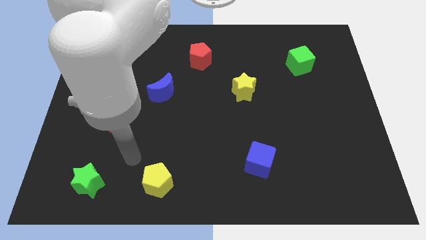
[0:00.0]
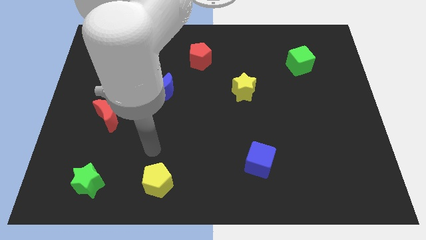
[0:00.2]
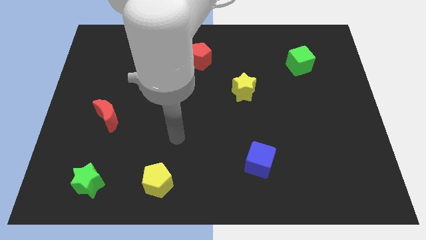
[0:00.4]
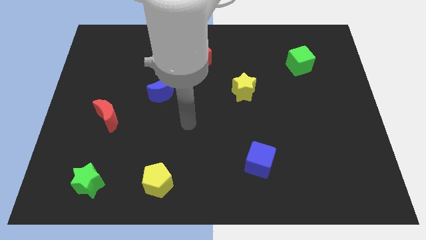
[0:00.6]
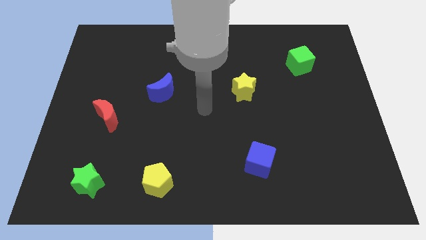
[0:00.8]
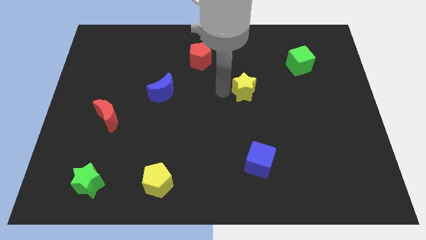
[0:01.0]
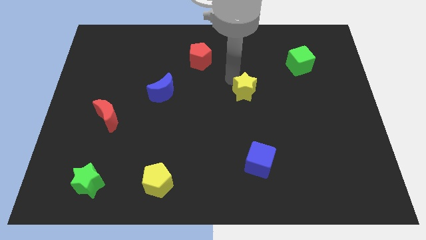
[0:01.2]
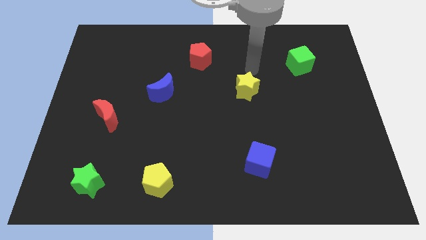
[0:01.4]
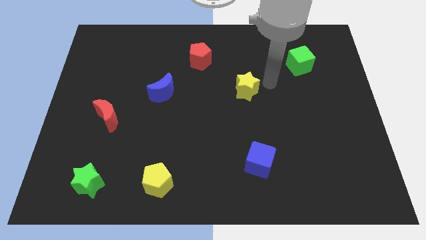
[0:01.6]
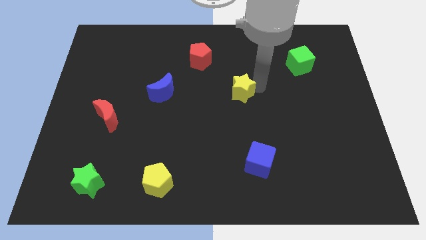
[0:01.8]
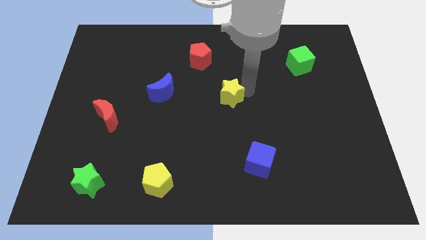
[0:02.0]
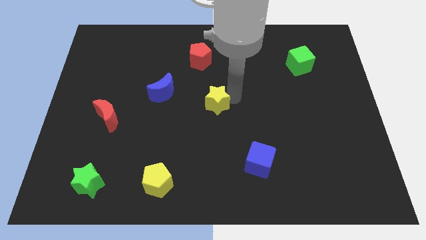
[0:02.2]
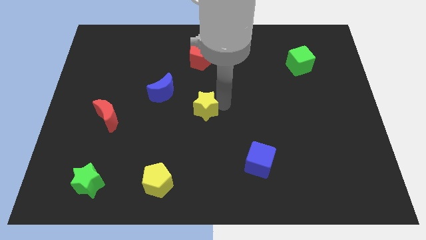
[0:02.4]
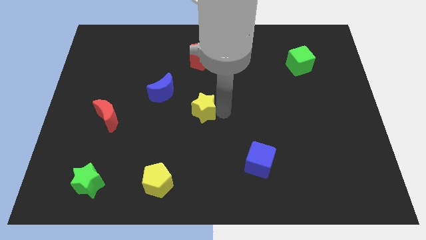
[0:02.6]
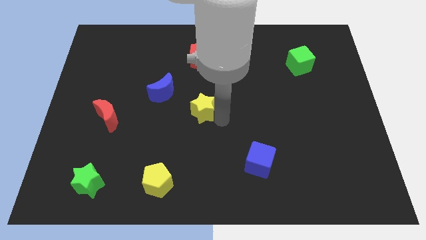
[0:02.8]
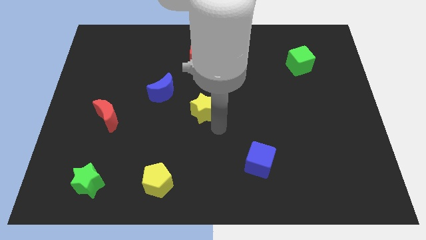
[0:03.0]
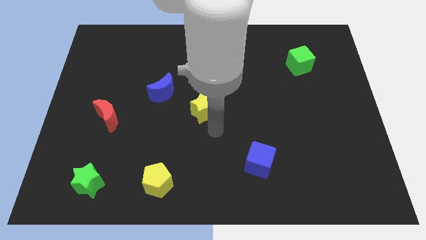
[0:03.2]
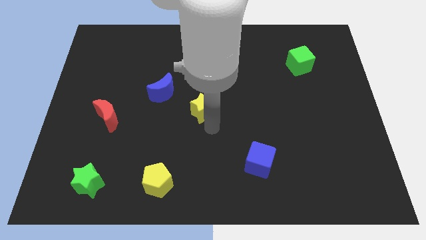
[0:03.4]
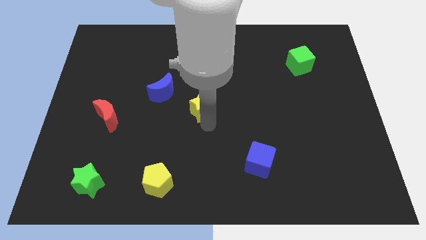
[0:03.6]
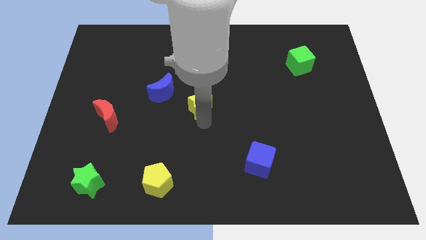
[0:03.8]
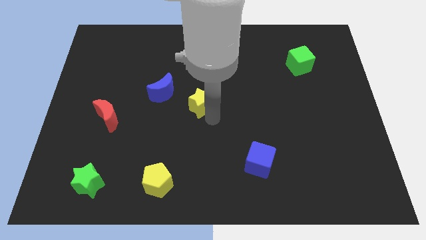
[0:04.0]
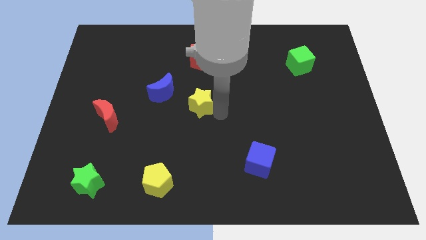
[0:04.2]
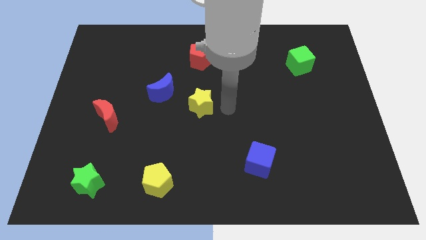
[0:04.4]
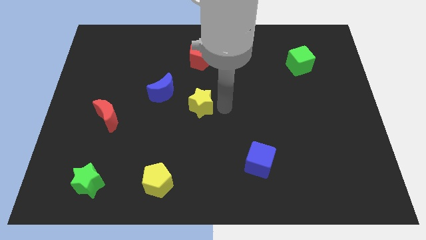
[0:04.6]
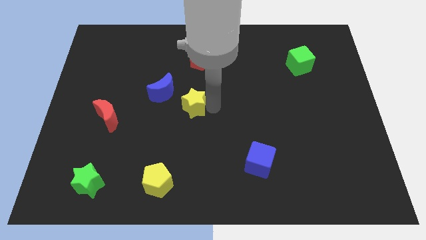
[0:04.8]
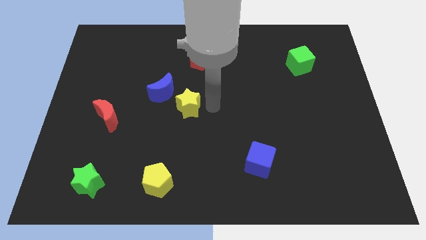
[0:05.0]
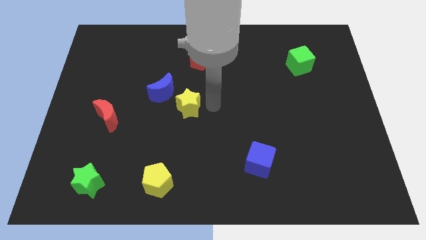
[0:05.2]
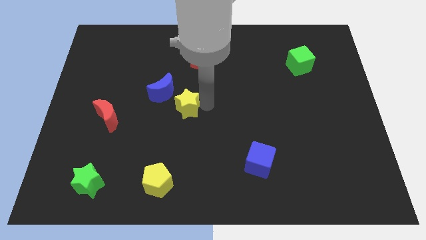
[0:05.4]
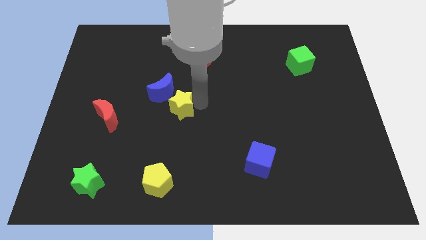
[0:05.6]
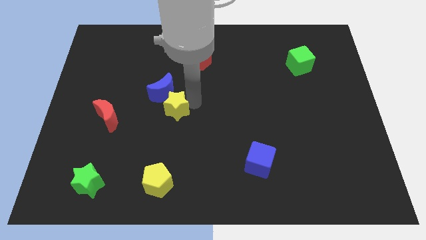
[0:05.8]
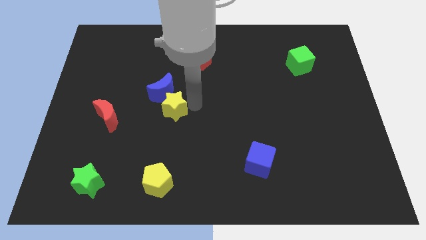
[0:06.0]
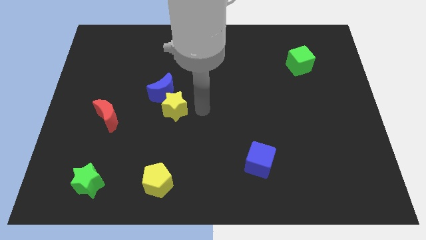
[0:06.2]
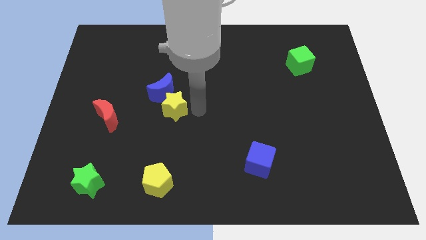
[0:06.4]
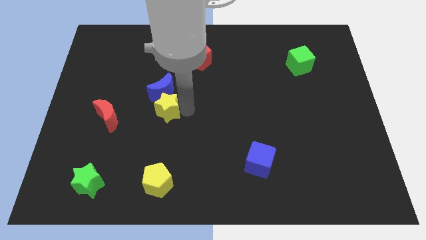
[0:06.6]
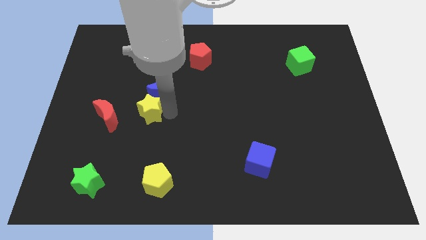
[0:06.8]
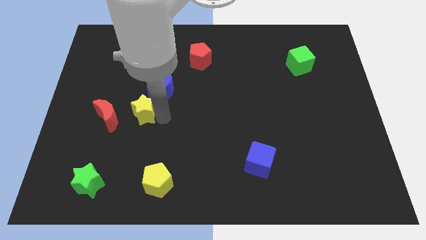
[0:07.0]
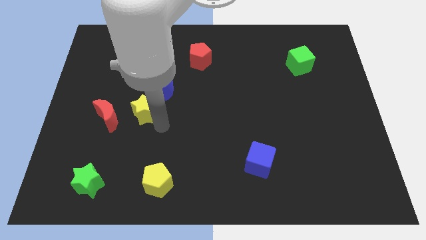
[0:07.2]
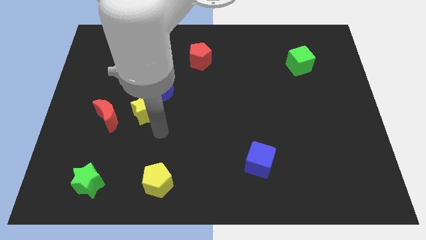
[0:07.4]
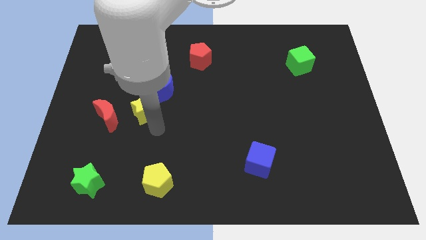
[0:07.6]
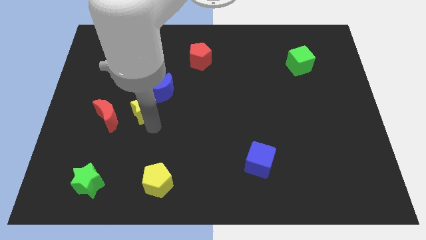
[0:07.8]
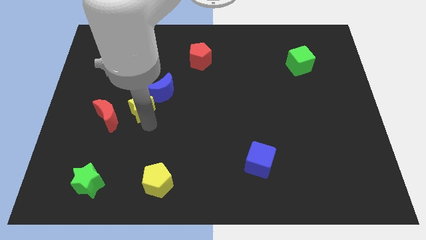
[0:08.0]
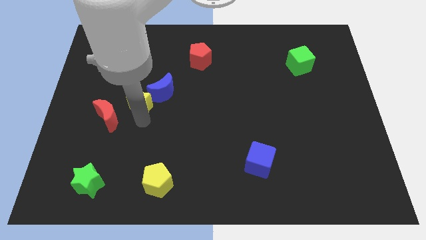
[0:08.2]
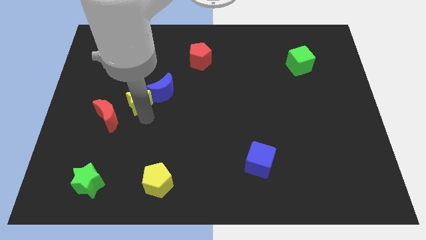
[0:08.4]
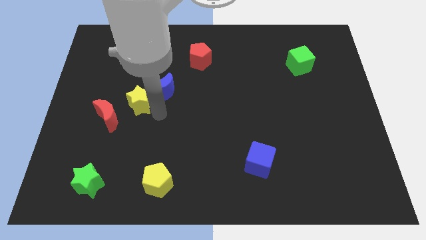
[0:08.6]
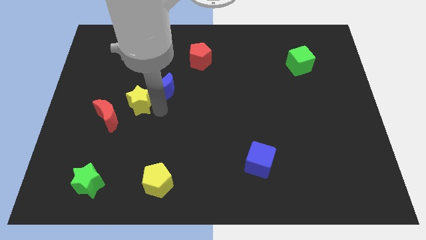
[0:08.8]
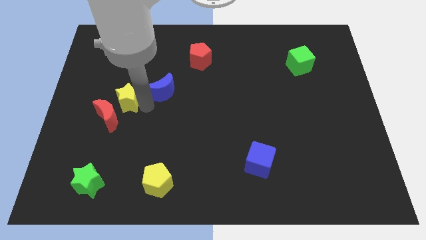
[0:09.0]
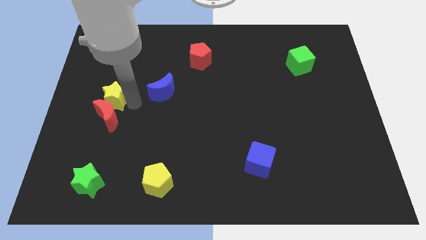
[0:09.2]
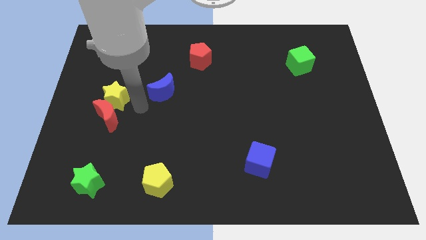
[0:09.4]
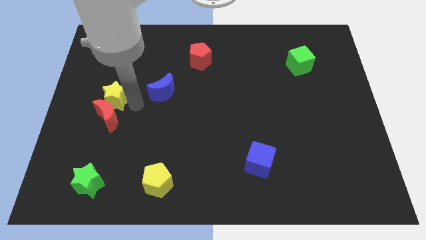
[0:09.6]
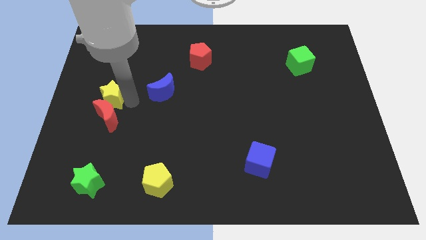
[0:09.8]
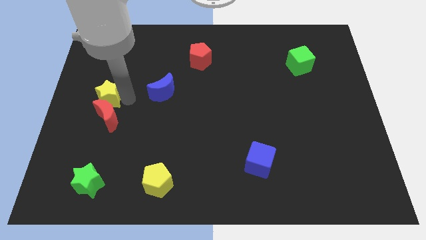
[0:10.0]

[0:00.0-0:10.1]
put the yellow star to the left side

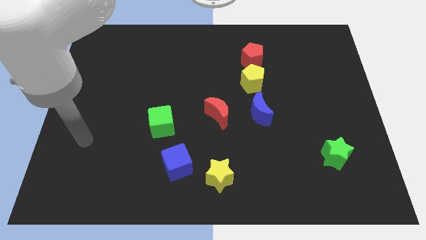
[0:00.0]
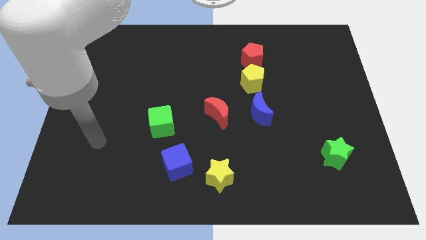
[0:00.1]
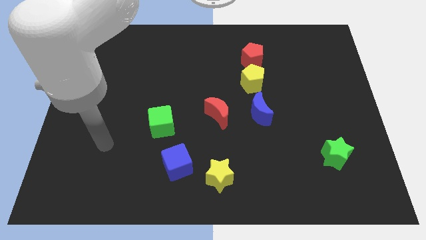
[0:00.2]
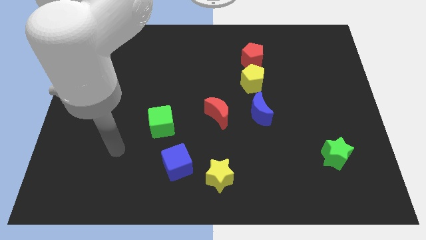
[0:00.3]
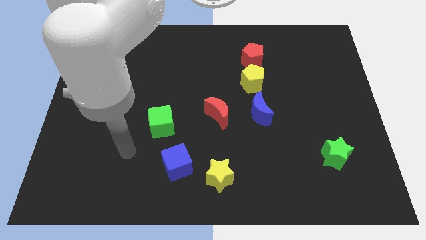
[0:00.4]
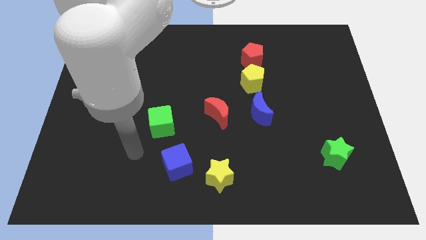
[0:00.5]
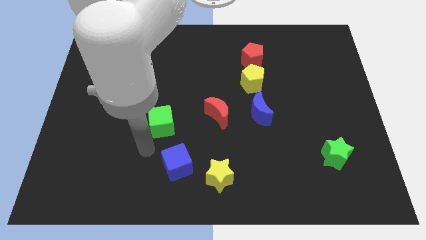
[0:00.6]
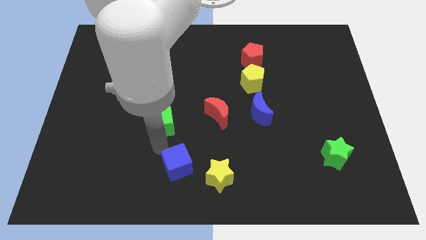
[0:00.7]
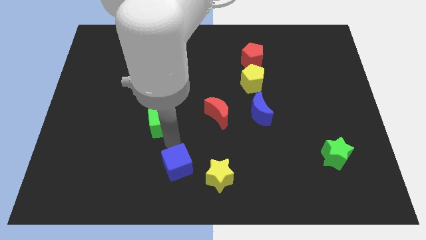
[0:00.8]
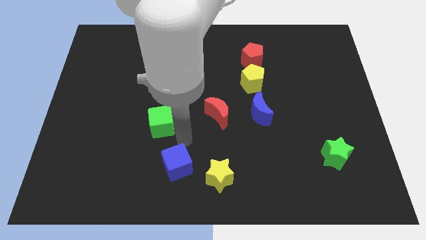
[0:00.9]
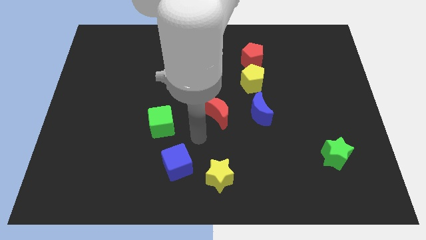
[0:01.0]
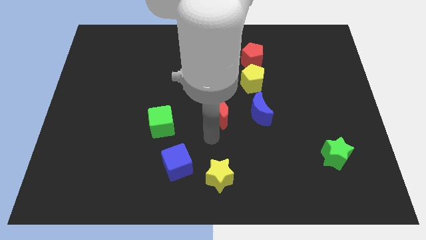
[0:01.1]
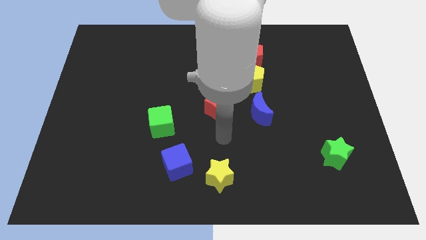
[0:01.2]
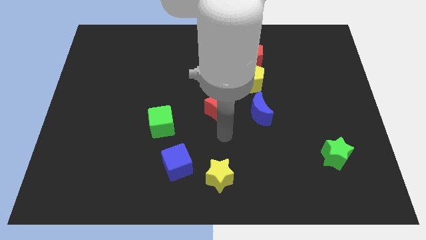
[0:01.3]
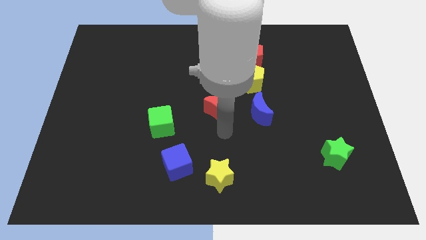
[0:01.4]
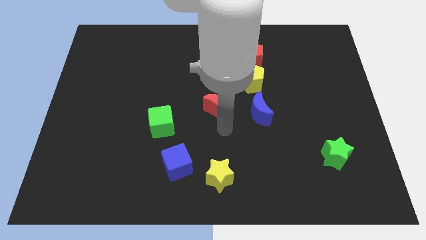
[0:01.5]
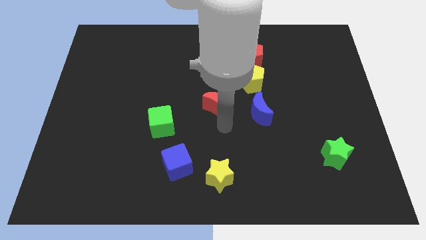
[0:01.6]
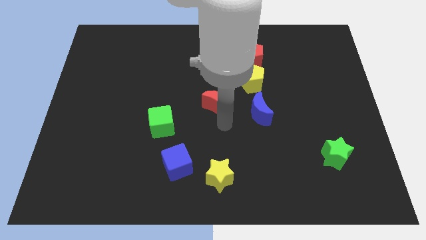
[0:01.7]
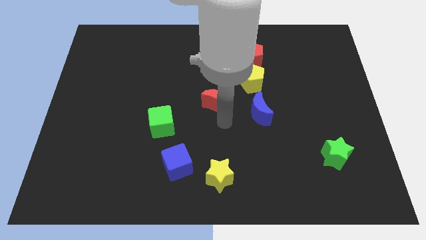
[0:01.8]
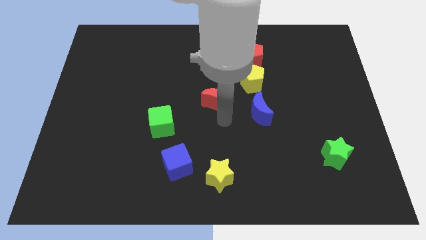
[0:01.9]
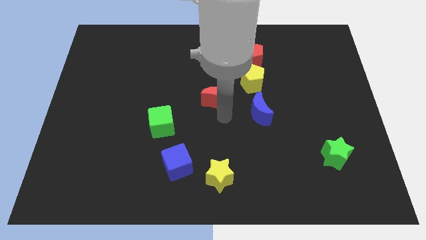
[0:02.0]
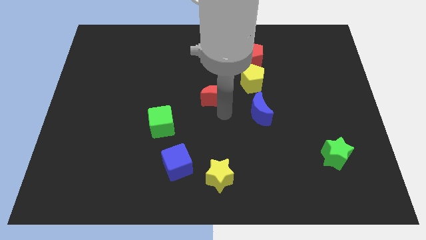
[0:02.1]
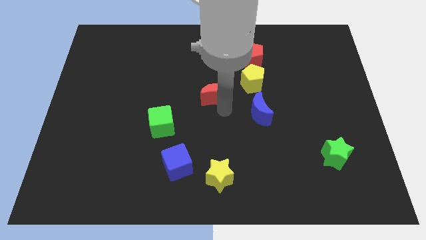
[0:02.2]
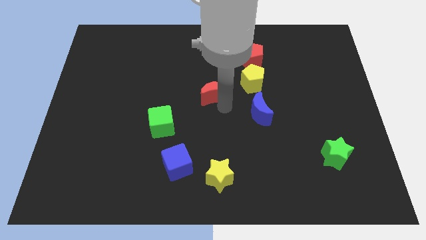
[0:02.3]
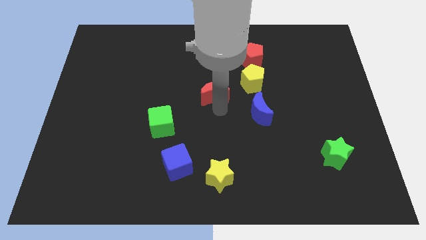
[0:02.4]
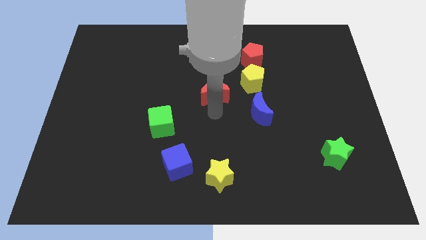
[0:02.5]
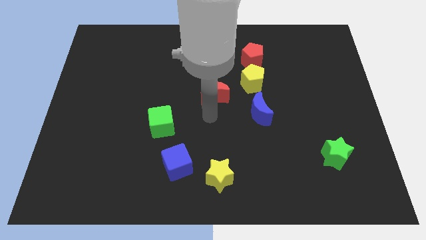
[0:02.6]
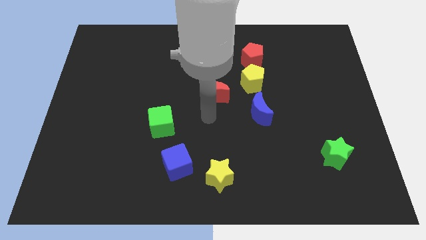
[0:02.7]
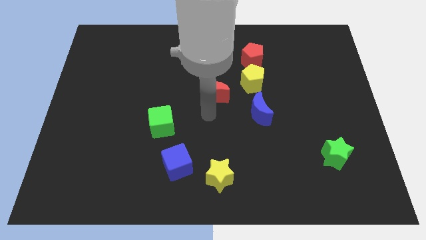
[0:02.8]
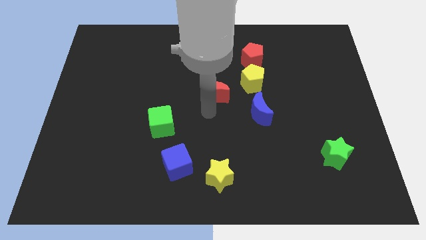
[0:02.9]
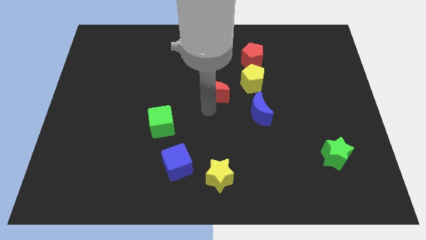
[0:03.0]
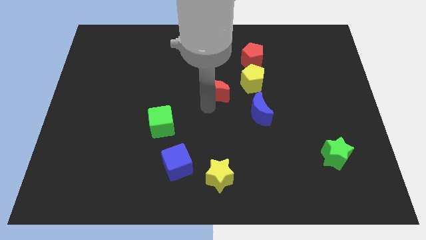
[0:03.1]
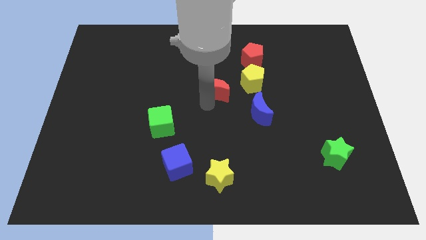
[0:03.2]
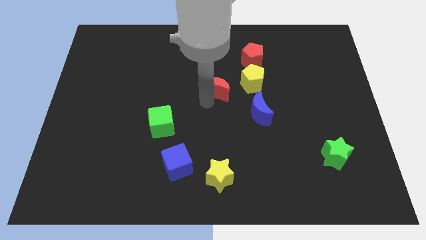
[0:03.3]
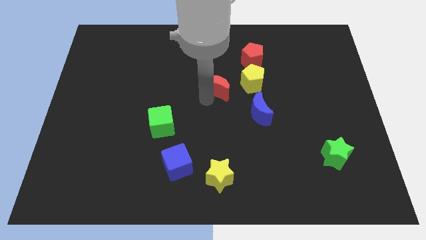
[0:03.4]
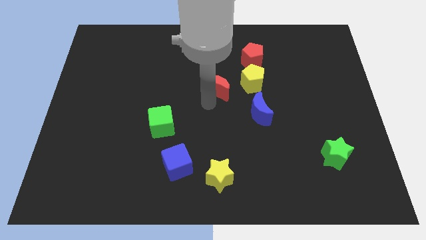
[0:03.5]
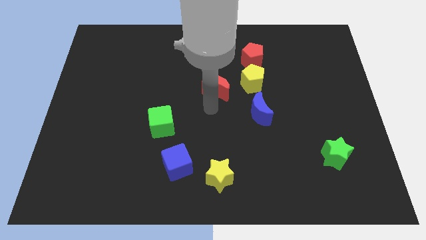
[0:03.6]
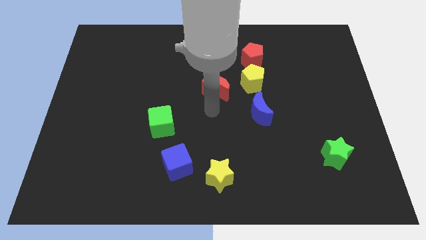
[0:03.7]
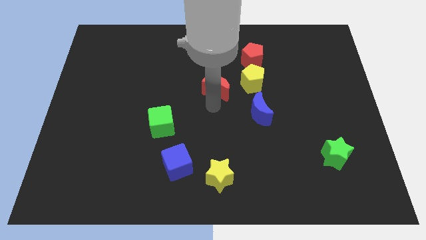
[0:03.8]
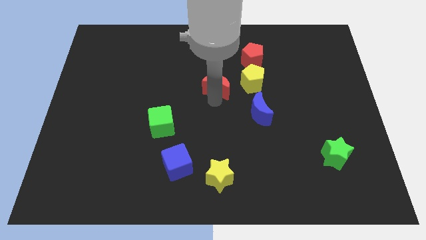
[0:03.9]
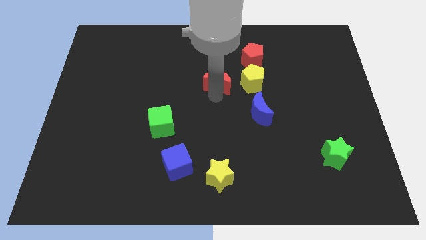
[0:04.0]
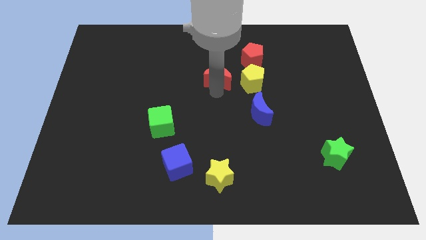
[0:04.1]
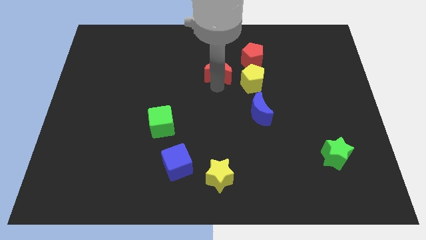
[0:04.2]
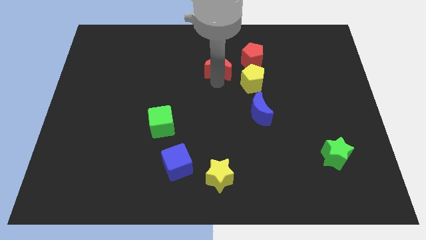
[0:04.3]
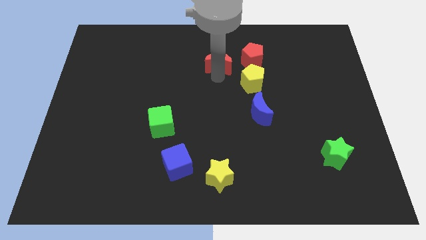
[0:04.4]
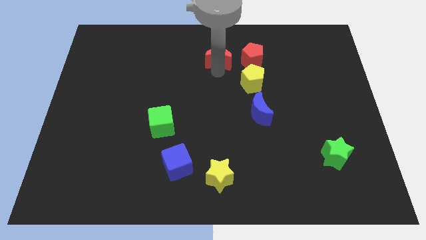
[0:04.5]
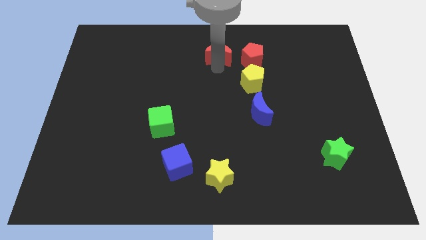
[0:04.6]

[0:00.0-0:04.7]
put the red moon to the top
